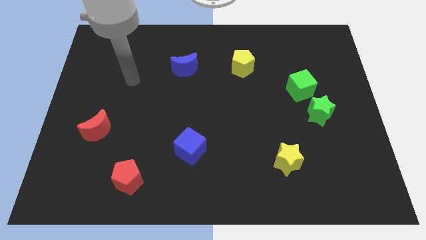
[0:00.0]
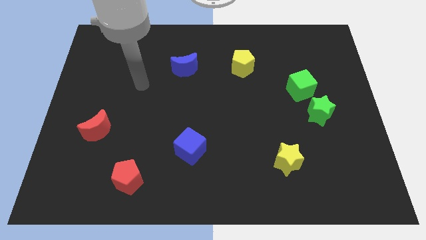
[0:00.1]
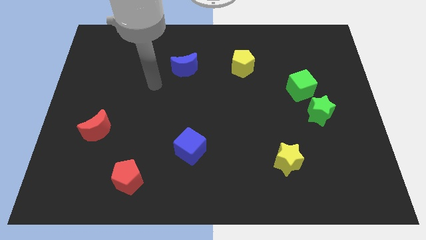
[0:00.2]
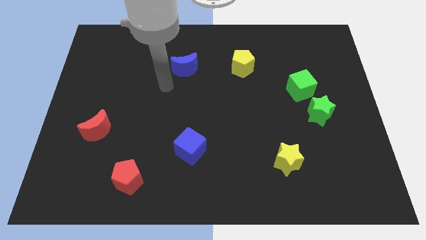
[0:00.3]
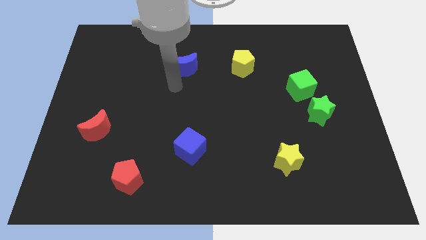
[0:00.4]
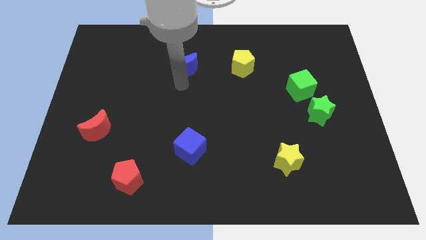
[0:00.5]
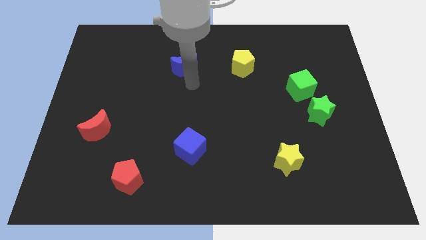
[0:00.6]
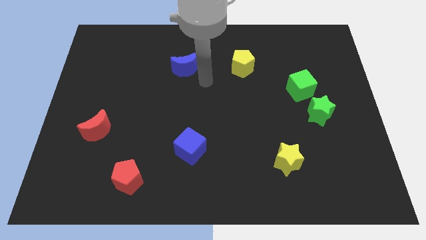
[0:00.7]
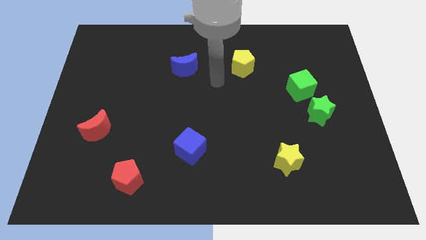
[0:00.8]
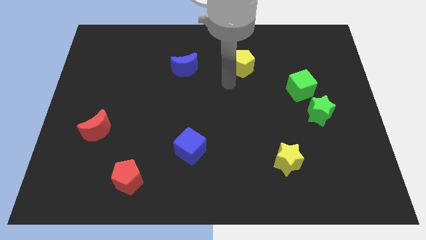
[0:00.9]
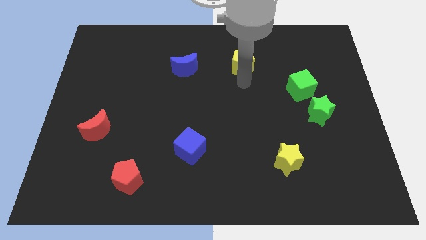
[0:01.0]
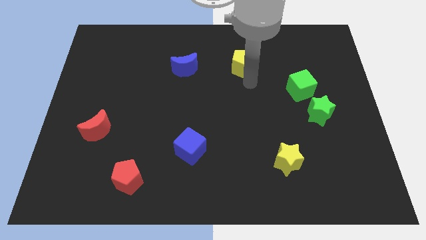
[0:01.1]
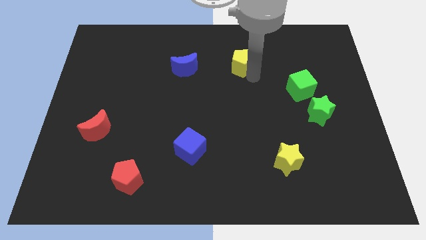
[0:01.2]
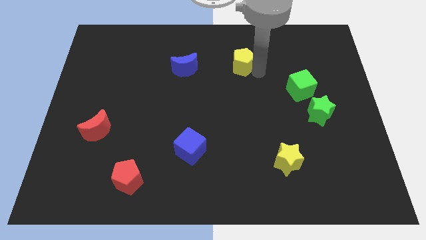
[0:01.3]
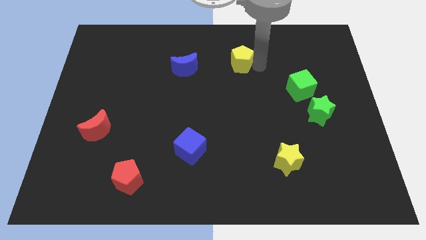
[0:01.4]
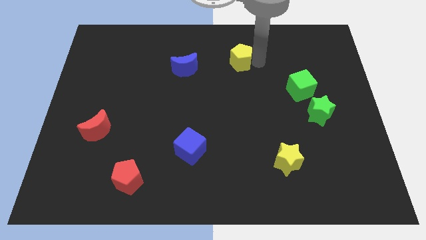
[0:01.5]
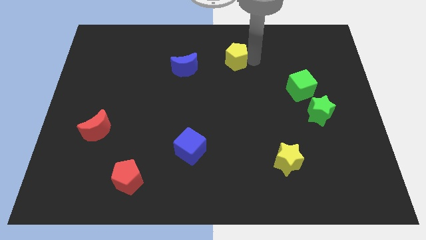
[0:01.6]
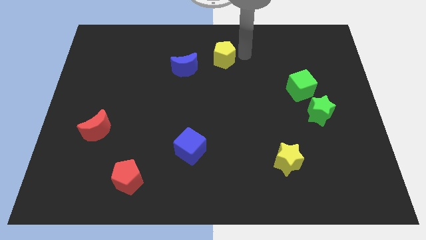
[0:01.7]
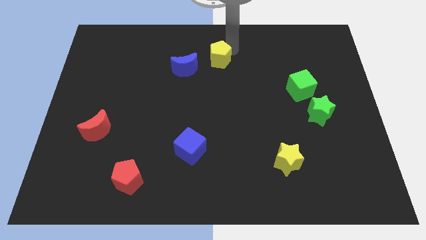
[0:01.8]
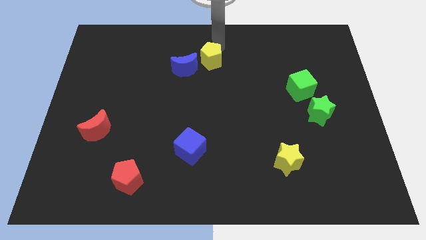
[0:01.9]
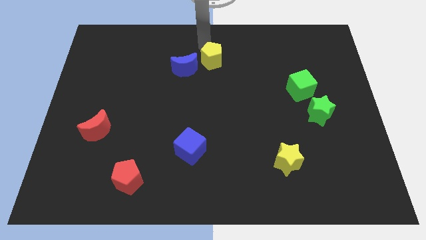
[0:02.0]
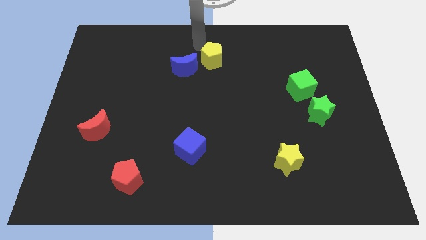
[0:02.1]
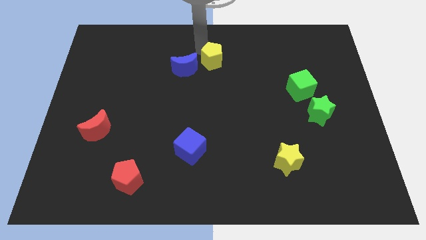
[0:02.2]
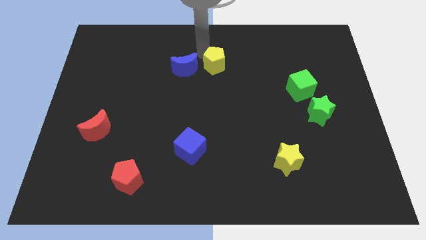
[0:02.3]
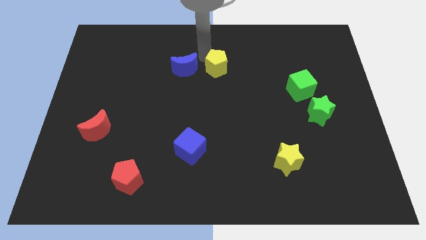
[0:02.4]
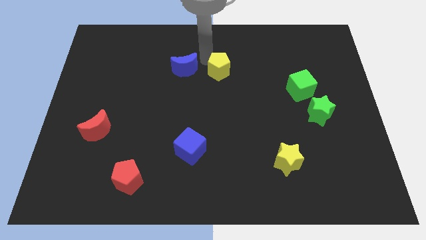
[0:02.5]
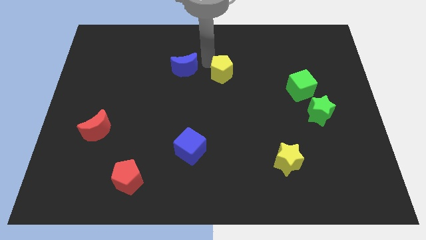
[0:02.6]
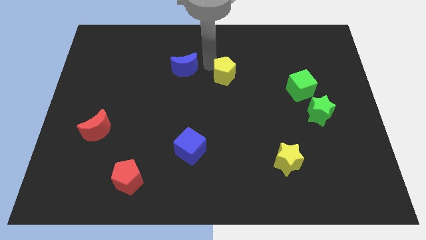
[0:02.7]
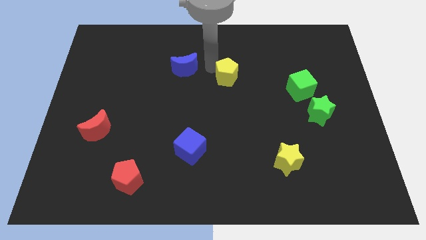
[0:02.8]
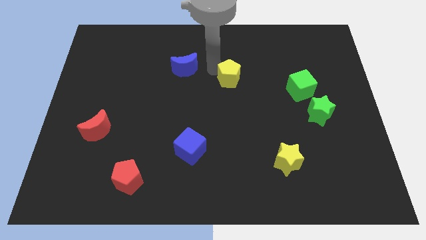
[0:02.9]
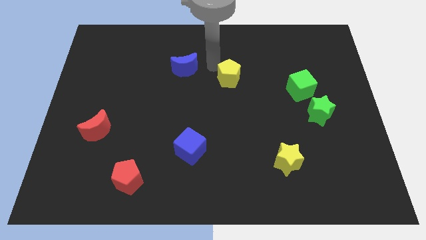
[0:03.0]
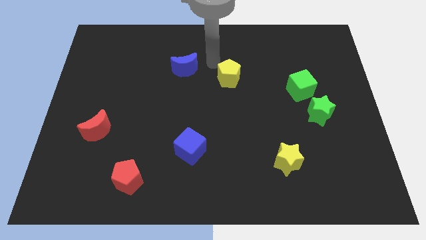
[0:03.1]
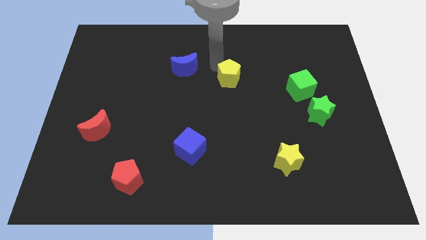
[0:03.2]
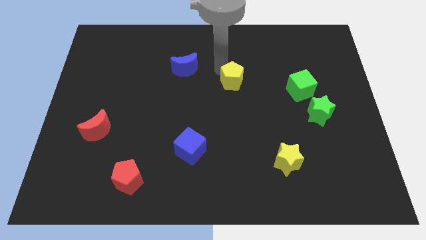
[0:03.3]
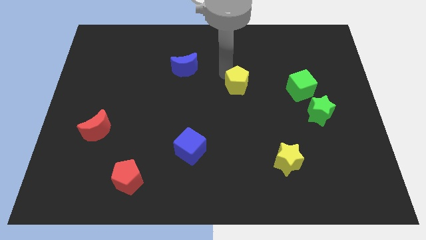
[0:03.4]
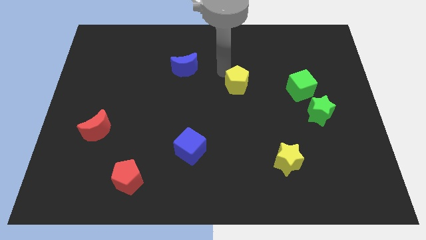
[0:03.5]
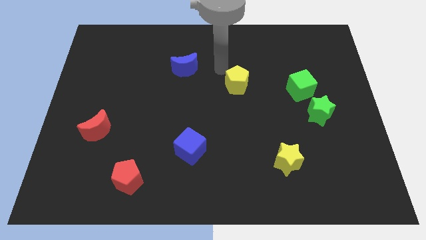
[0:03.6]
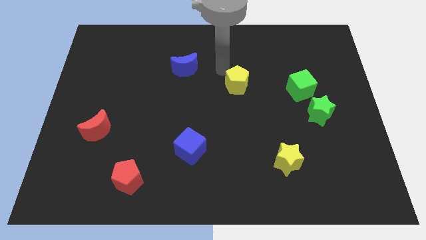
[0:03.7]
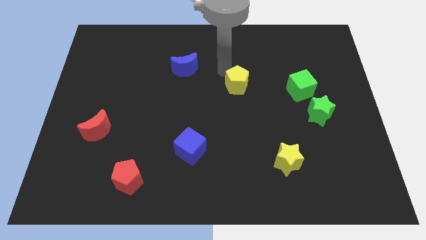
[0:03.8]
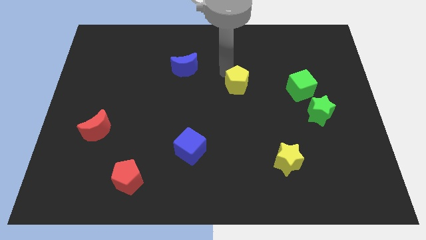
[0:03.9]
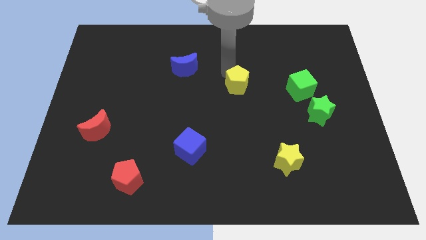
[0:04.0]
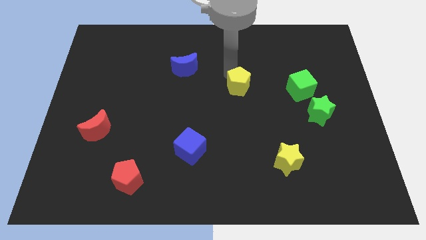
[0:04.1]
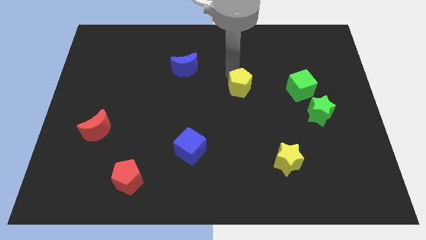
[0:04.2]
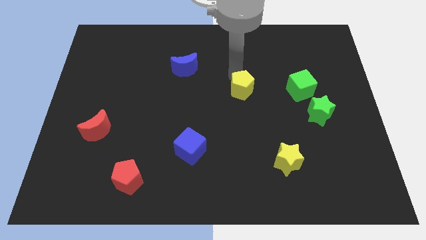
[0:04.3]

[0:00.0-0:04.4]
push the yellow pentagon slightly downwards

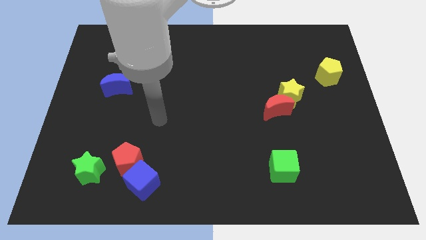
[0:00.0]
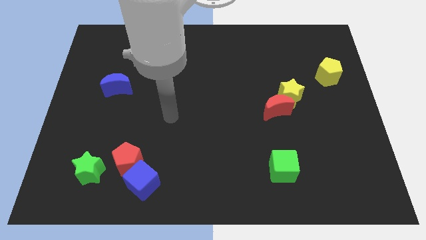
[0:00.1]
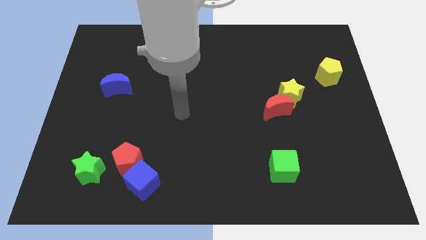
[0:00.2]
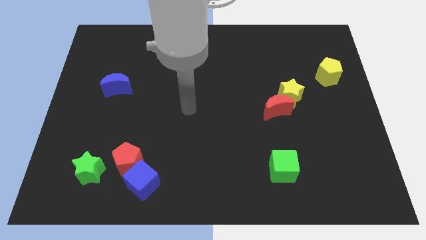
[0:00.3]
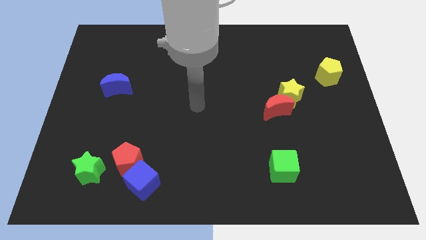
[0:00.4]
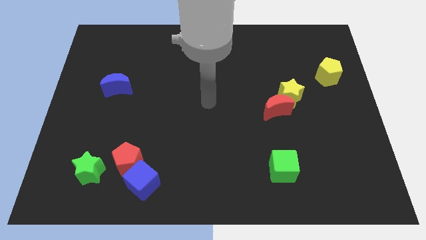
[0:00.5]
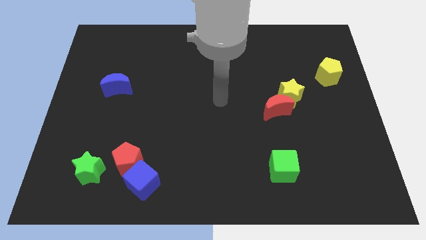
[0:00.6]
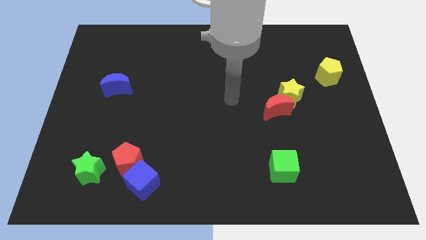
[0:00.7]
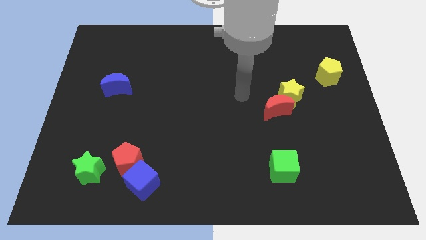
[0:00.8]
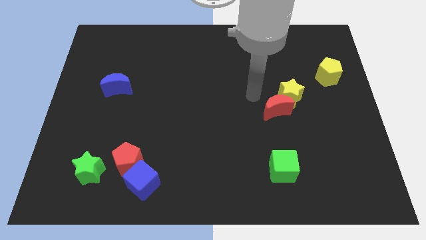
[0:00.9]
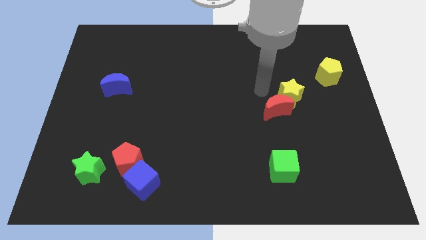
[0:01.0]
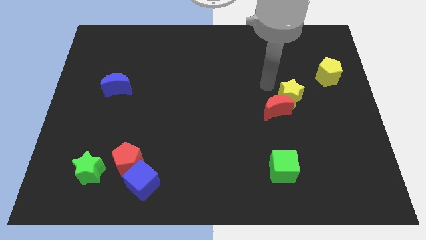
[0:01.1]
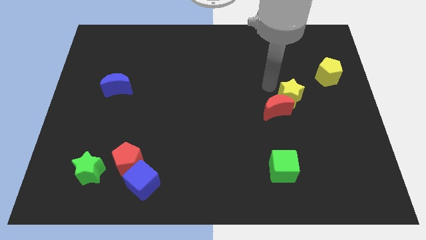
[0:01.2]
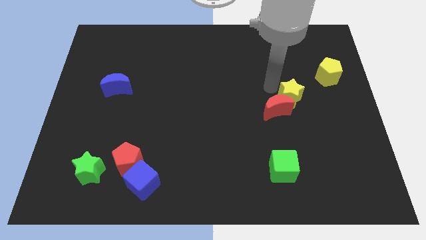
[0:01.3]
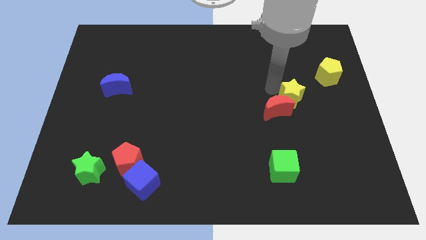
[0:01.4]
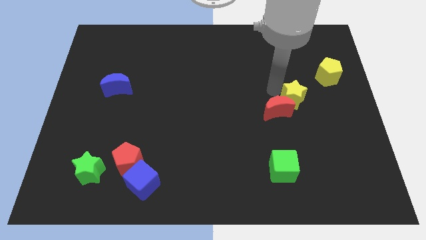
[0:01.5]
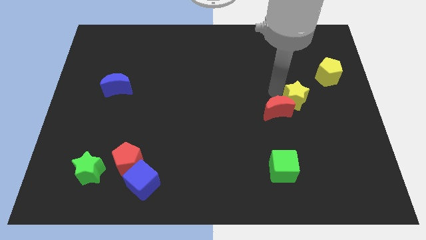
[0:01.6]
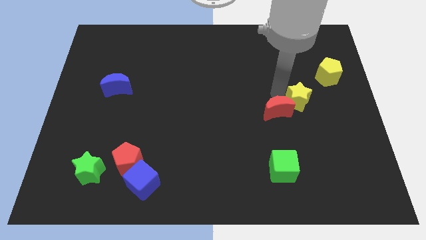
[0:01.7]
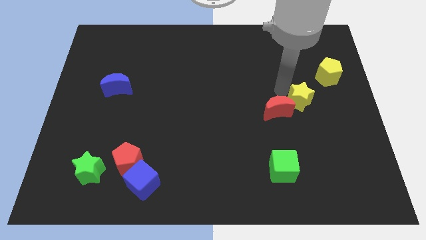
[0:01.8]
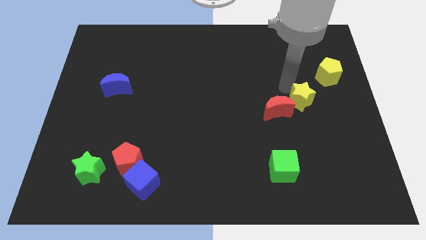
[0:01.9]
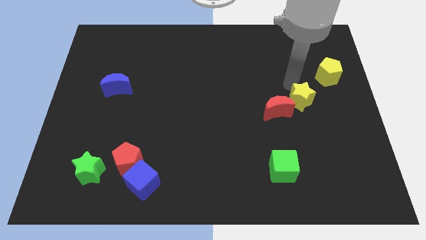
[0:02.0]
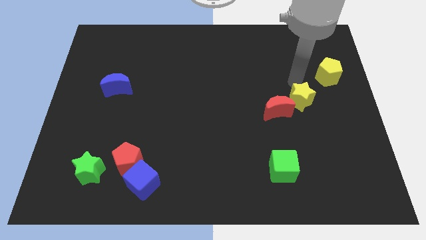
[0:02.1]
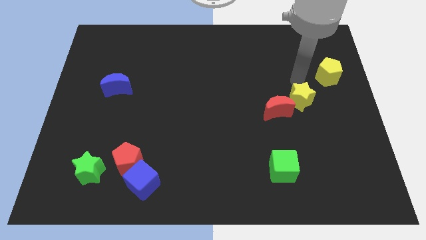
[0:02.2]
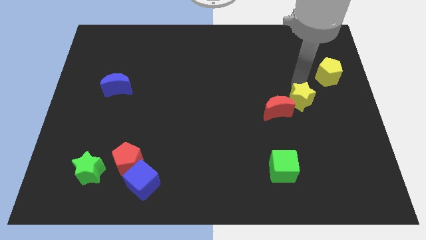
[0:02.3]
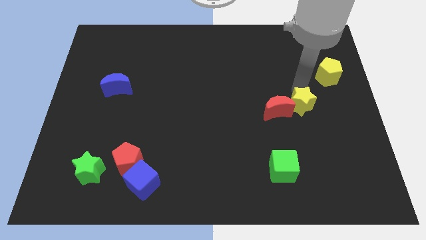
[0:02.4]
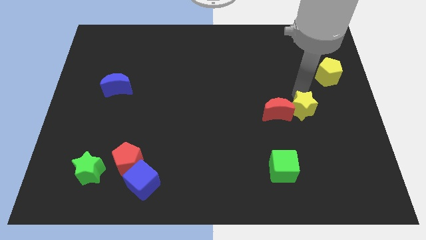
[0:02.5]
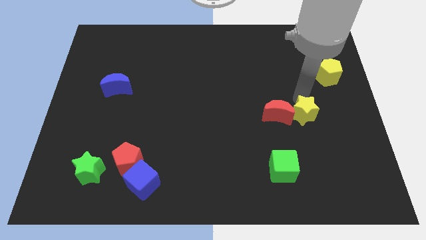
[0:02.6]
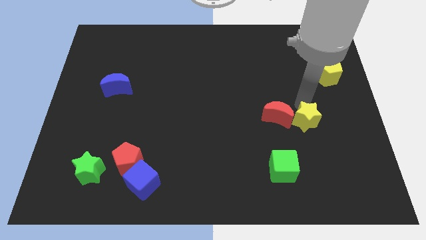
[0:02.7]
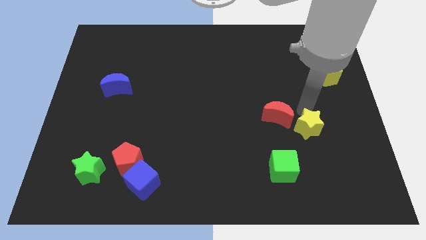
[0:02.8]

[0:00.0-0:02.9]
move the yellow star downwards somewhat

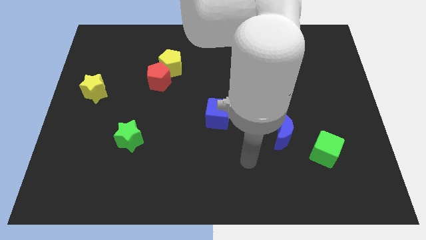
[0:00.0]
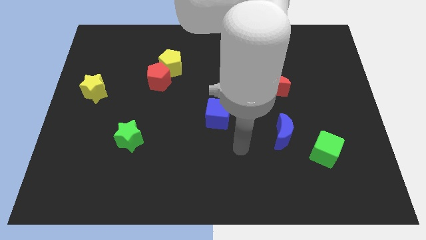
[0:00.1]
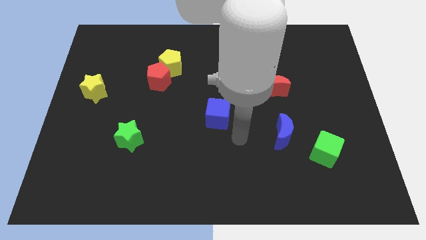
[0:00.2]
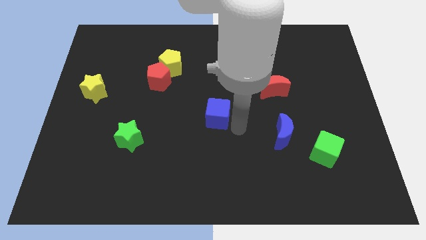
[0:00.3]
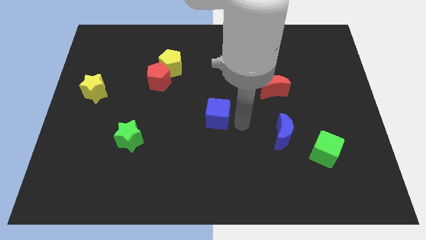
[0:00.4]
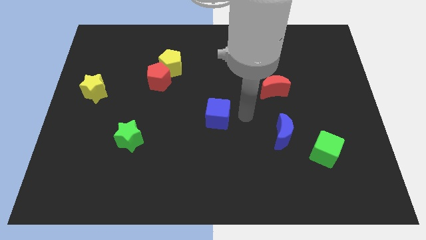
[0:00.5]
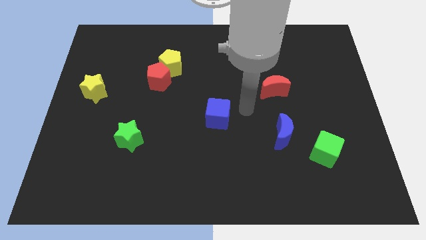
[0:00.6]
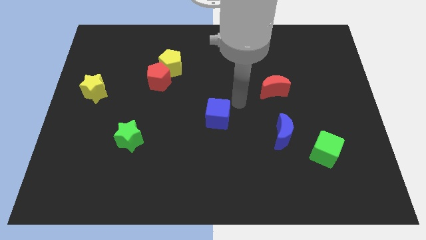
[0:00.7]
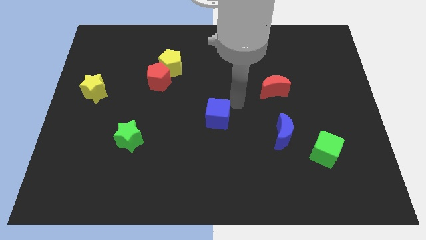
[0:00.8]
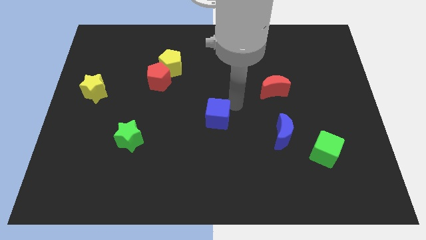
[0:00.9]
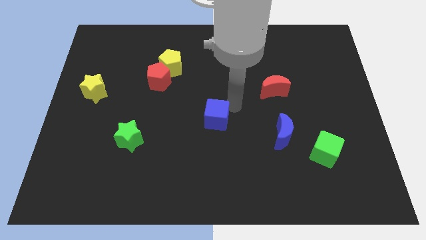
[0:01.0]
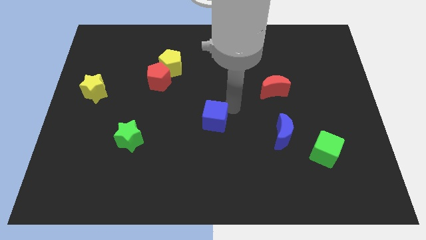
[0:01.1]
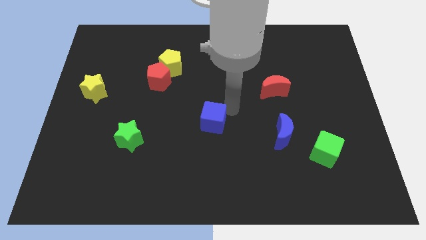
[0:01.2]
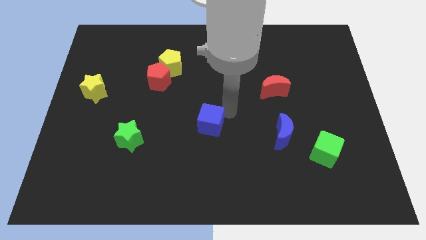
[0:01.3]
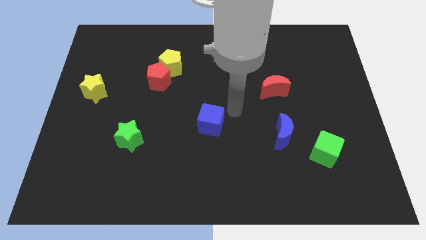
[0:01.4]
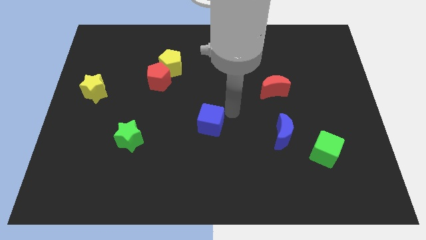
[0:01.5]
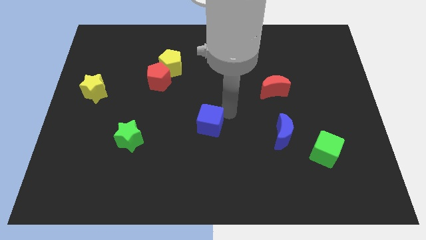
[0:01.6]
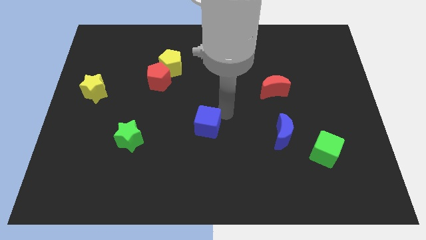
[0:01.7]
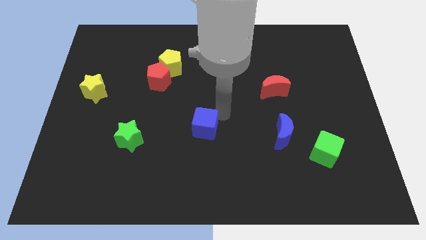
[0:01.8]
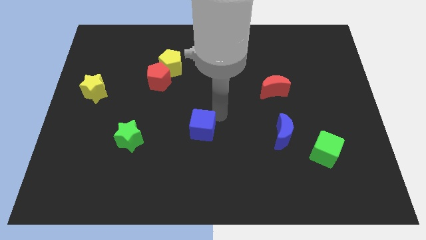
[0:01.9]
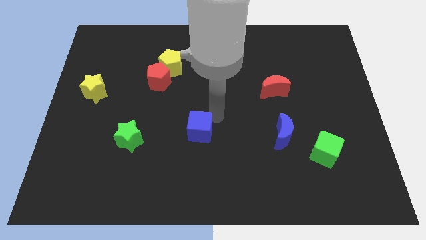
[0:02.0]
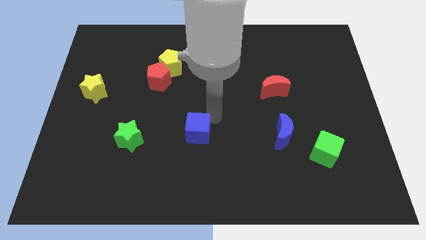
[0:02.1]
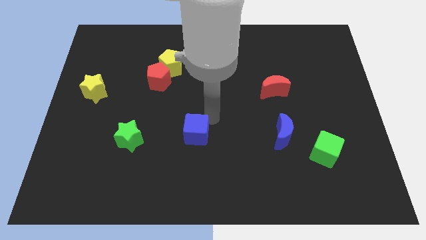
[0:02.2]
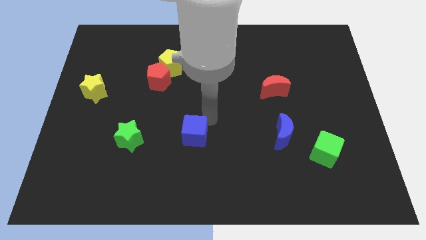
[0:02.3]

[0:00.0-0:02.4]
slide the blue cube a bit diagonally down and left
